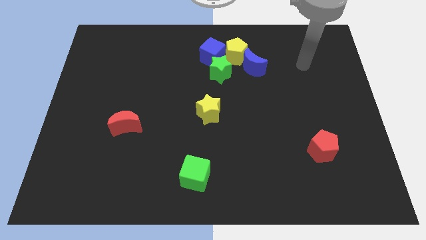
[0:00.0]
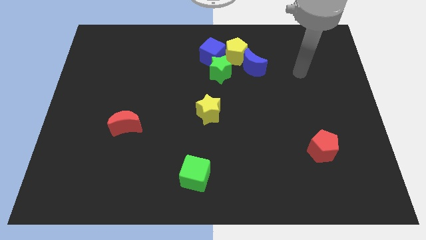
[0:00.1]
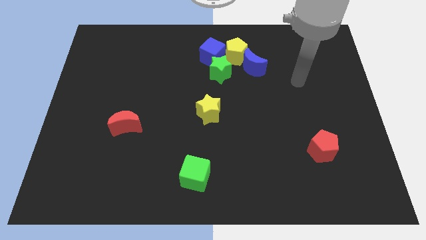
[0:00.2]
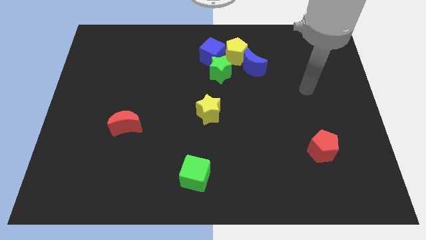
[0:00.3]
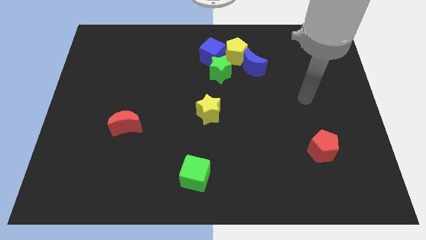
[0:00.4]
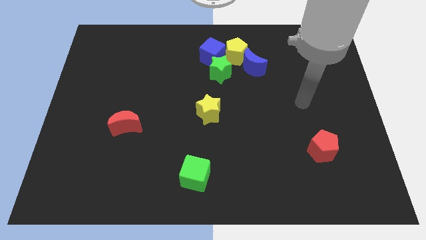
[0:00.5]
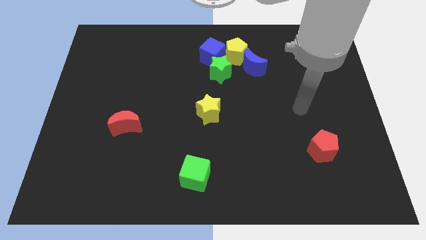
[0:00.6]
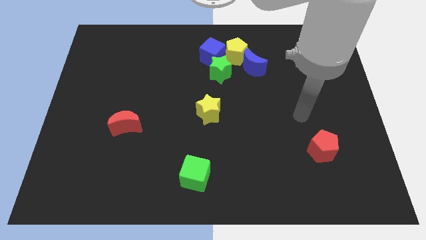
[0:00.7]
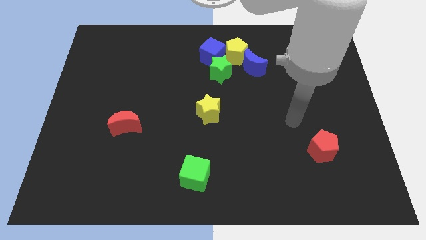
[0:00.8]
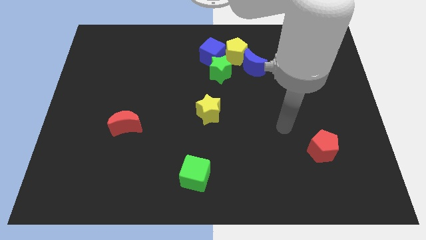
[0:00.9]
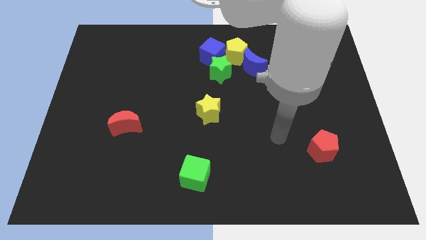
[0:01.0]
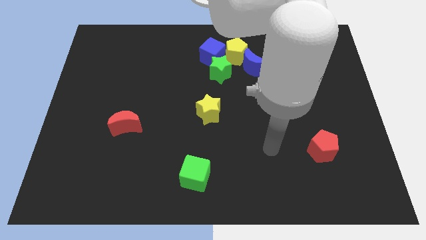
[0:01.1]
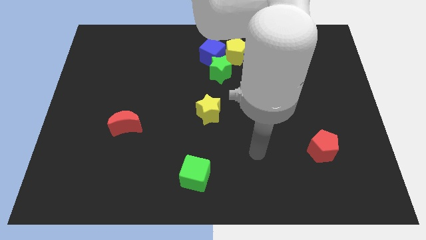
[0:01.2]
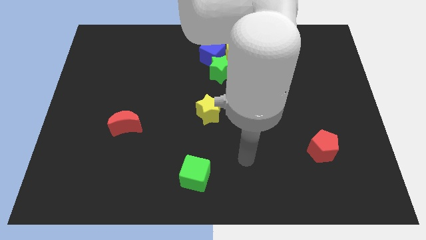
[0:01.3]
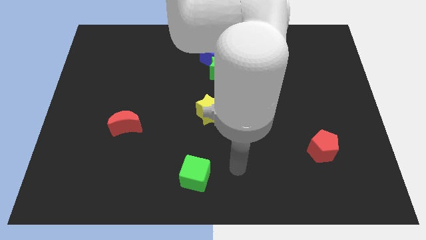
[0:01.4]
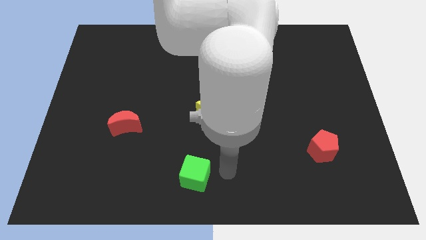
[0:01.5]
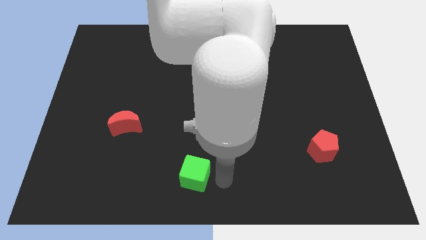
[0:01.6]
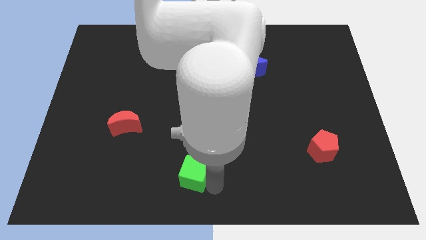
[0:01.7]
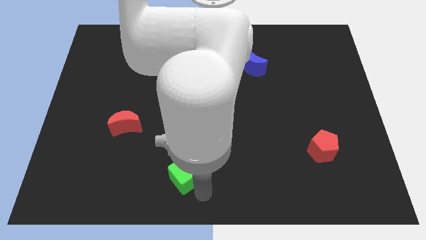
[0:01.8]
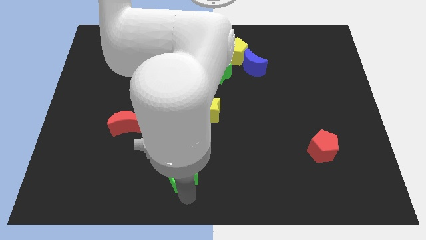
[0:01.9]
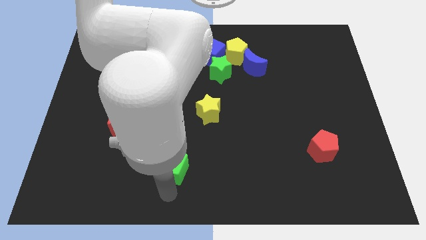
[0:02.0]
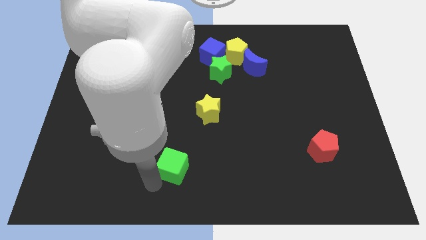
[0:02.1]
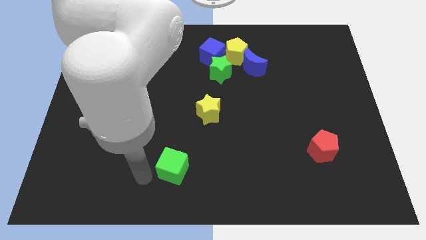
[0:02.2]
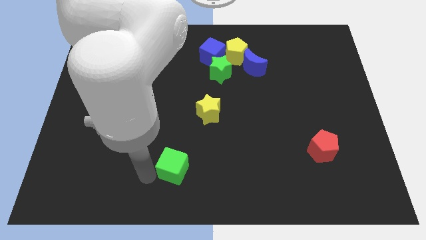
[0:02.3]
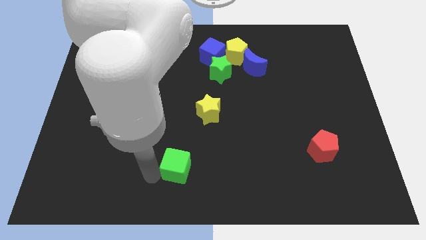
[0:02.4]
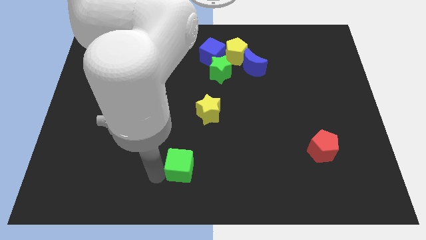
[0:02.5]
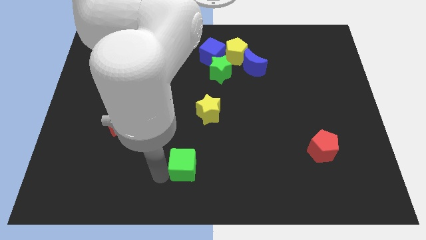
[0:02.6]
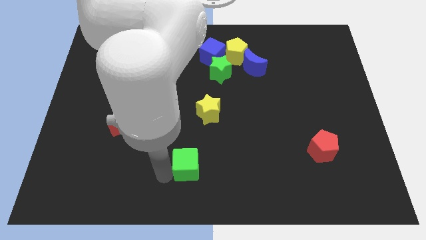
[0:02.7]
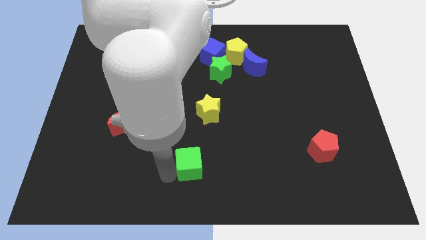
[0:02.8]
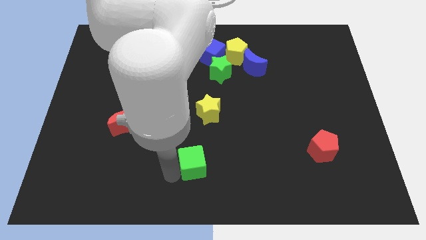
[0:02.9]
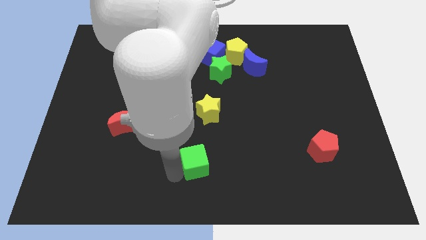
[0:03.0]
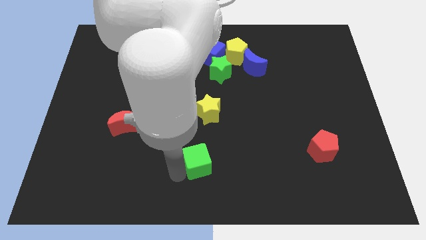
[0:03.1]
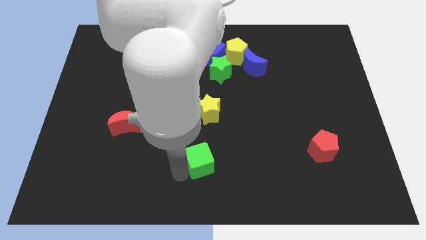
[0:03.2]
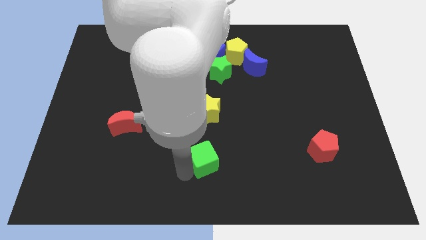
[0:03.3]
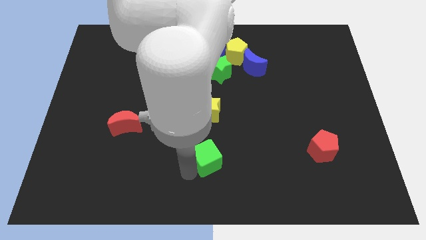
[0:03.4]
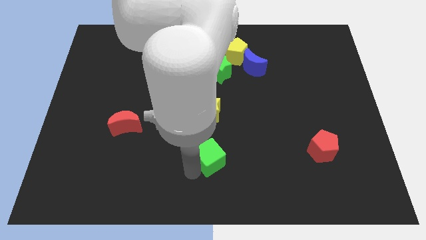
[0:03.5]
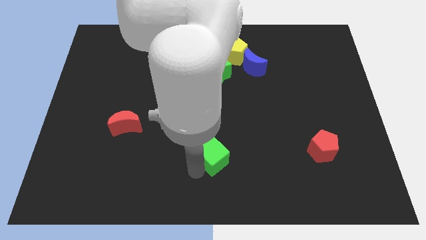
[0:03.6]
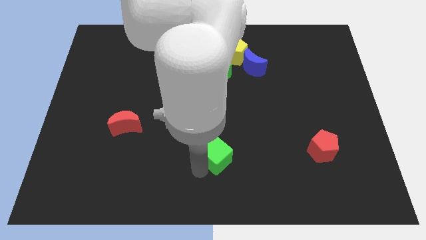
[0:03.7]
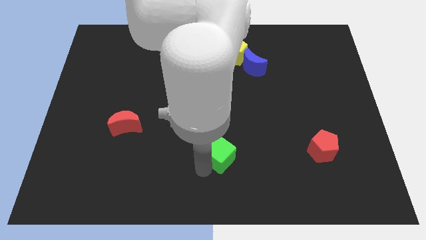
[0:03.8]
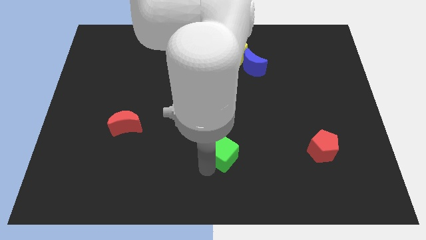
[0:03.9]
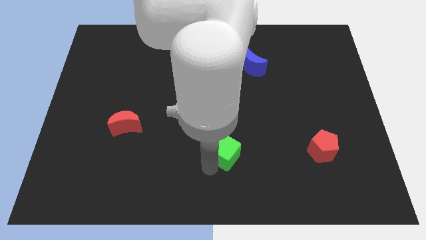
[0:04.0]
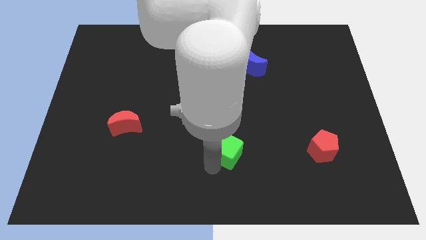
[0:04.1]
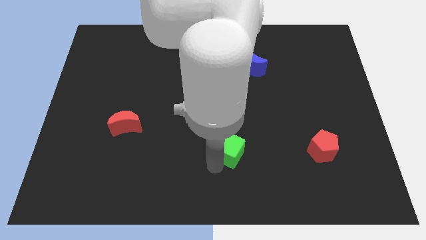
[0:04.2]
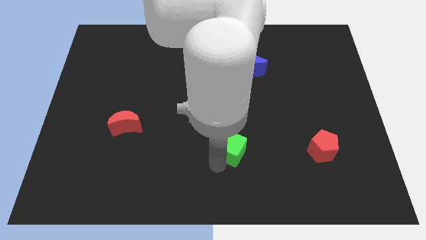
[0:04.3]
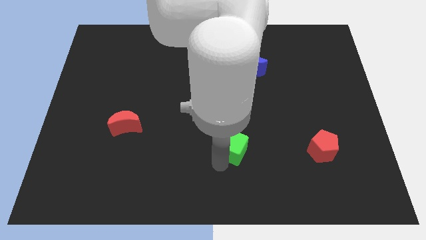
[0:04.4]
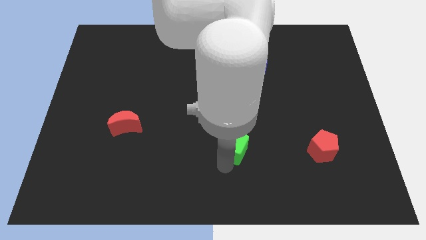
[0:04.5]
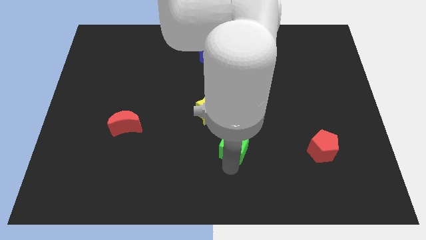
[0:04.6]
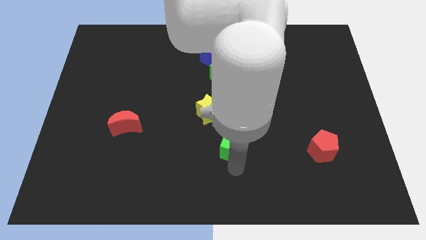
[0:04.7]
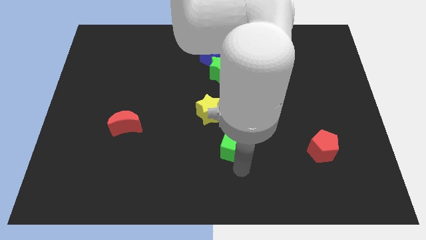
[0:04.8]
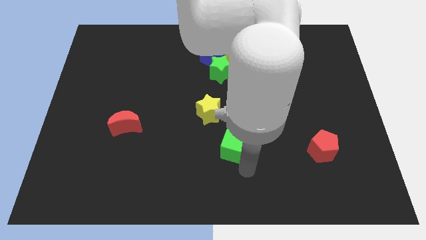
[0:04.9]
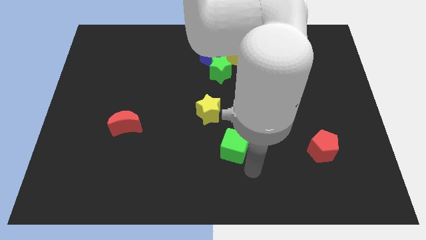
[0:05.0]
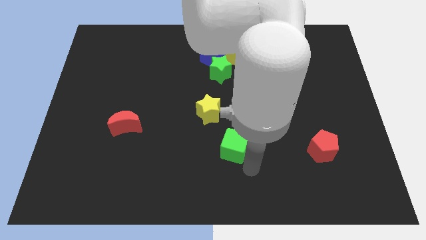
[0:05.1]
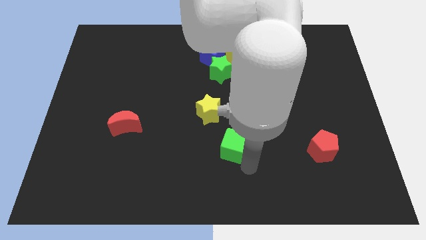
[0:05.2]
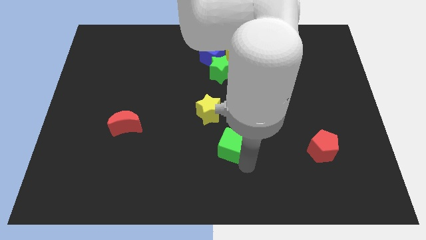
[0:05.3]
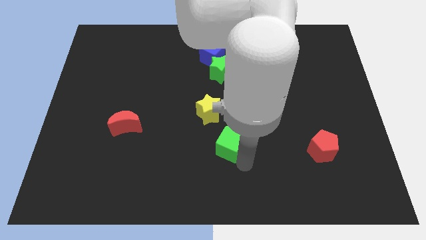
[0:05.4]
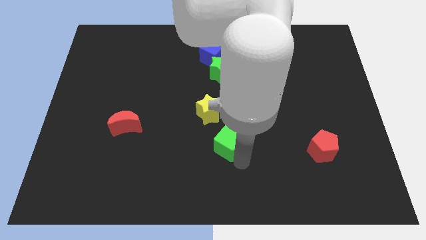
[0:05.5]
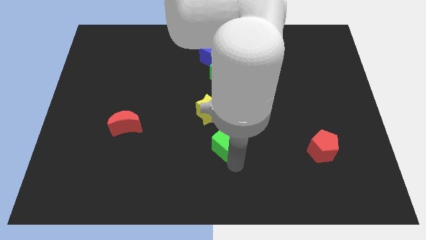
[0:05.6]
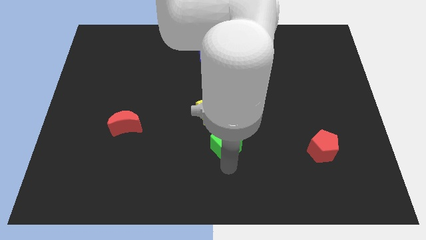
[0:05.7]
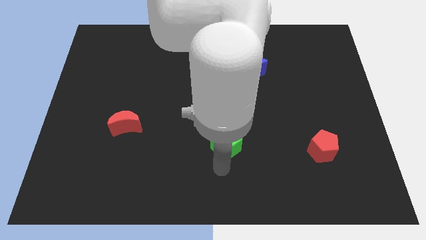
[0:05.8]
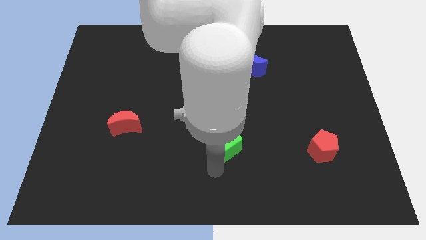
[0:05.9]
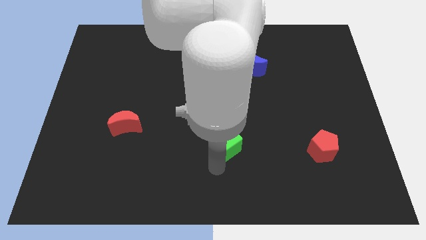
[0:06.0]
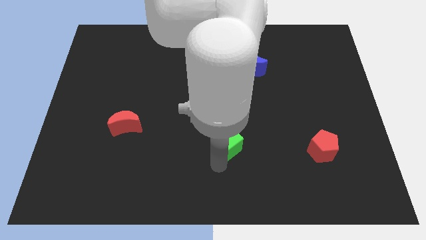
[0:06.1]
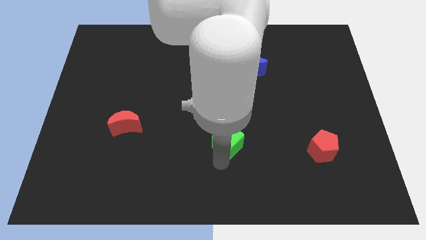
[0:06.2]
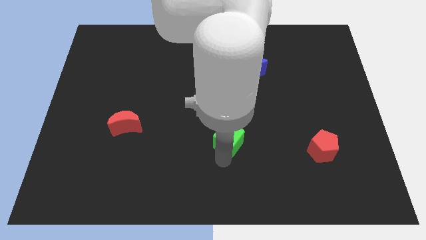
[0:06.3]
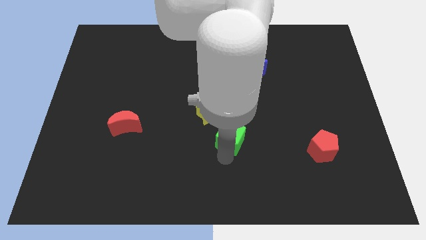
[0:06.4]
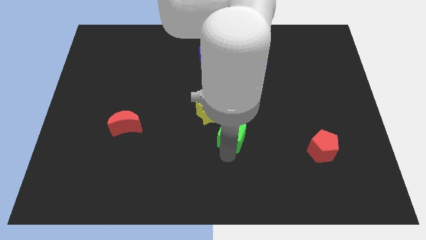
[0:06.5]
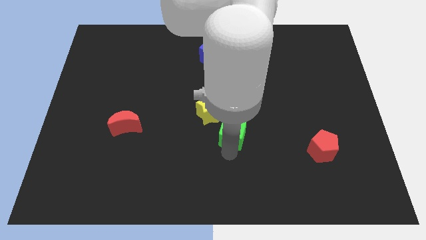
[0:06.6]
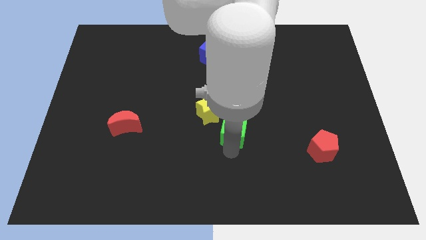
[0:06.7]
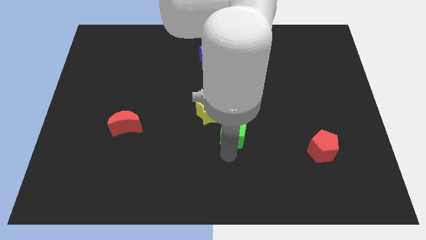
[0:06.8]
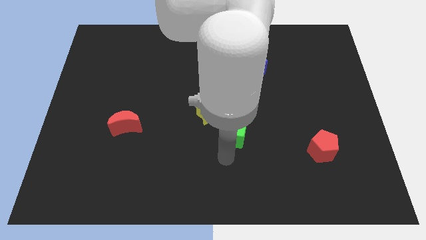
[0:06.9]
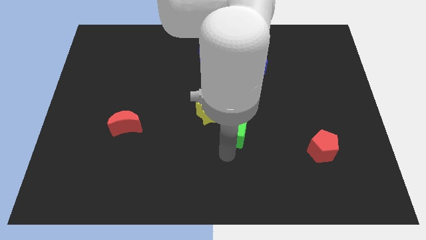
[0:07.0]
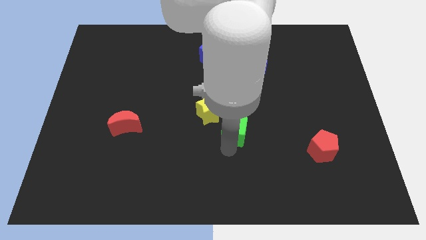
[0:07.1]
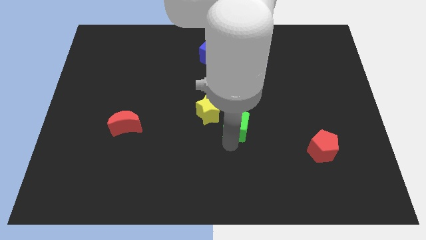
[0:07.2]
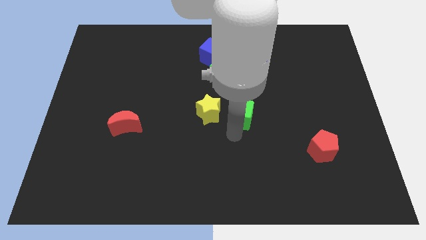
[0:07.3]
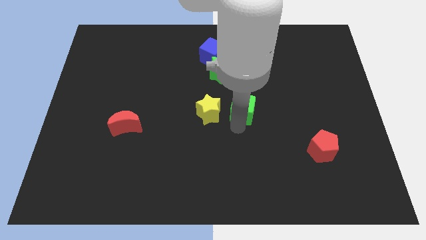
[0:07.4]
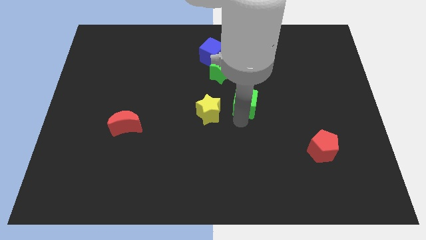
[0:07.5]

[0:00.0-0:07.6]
move the green cube to the bottom right of the green star
